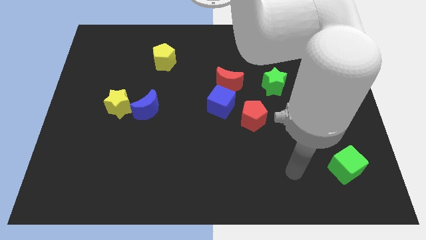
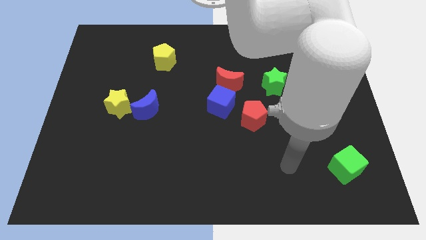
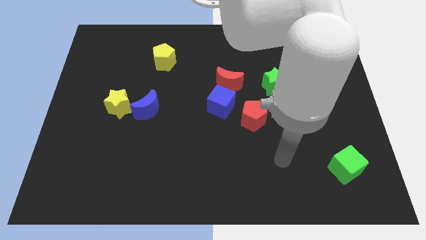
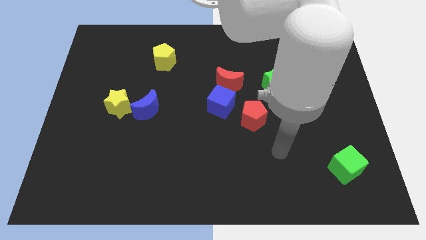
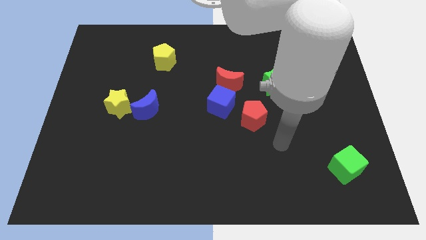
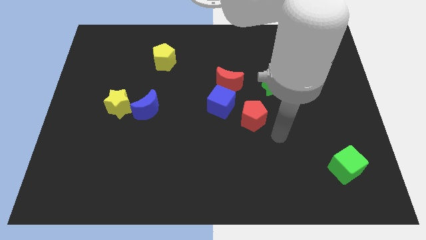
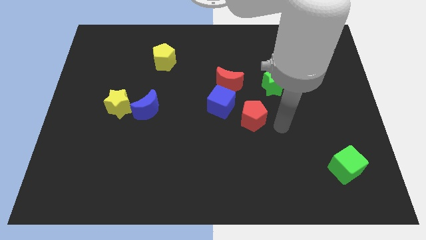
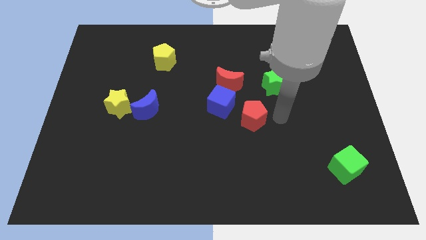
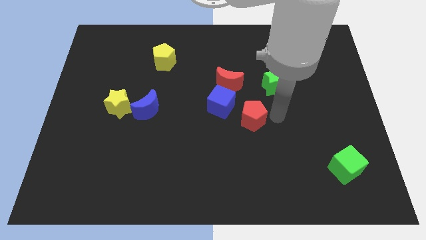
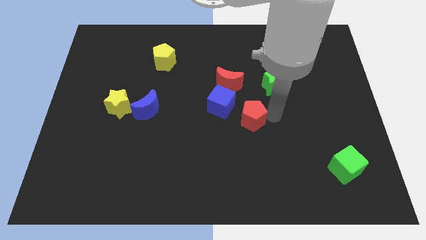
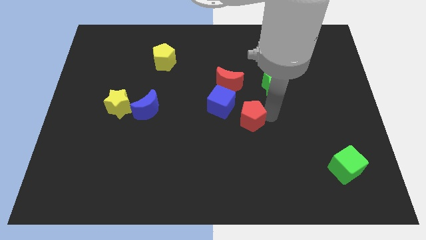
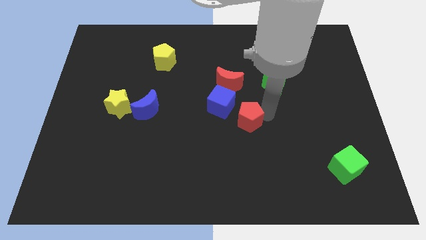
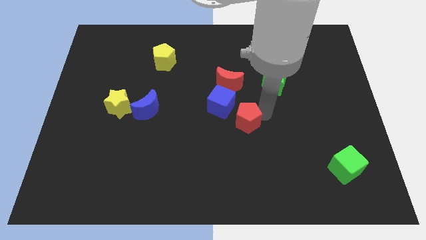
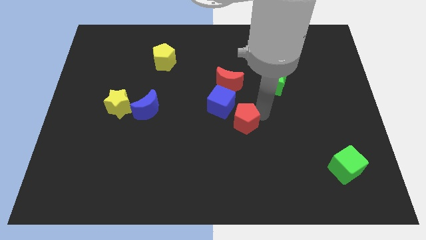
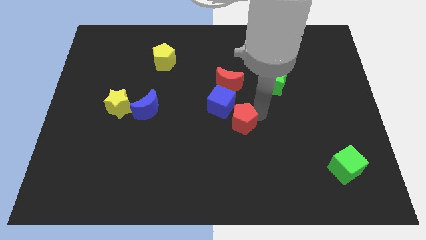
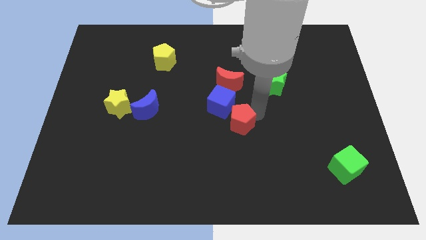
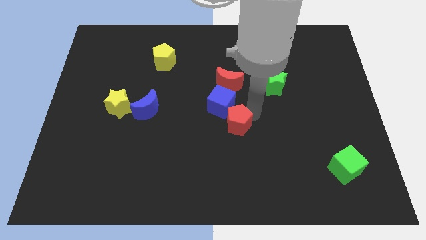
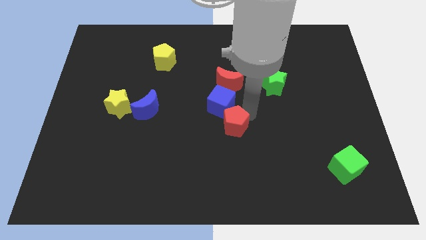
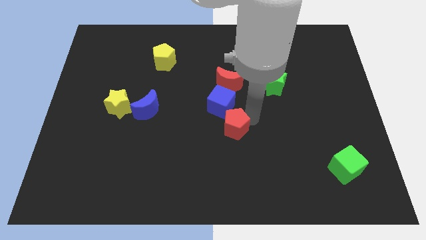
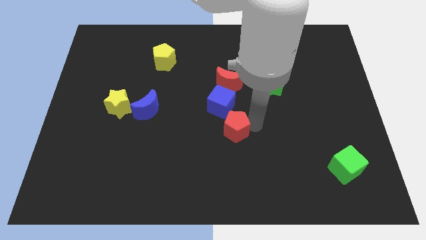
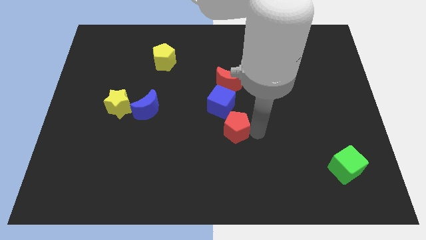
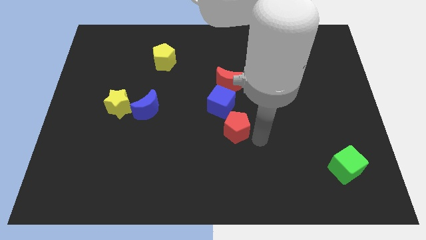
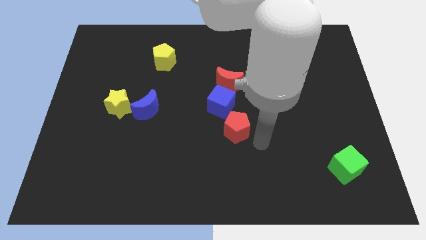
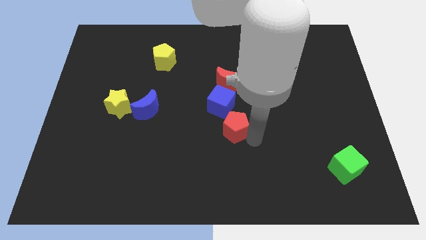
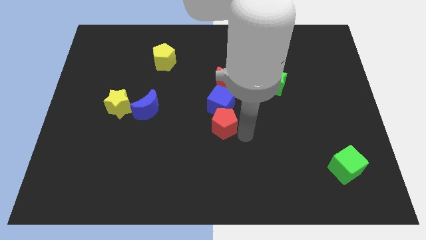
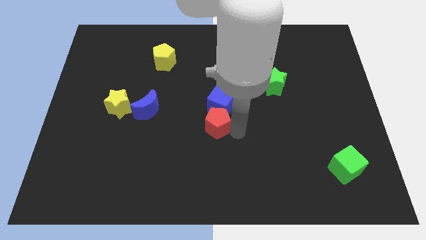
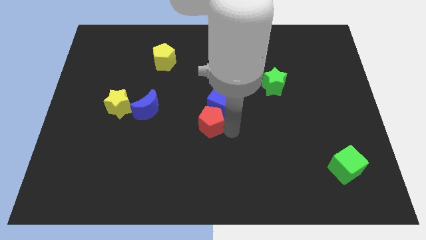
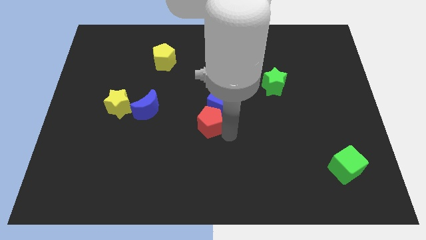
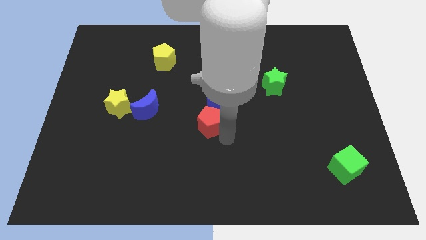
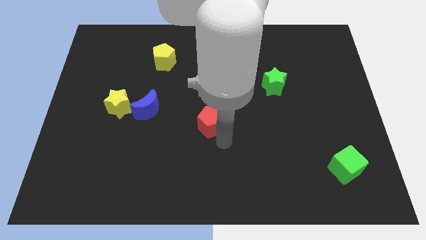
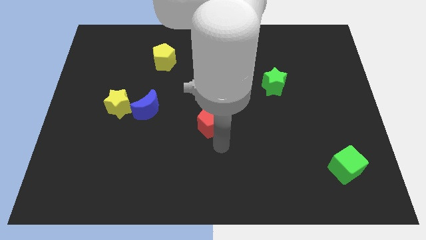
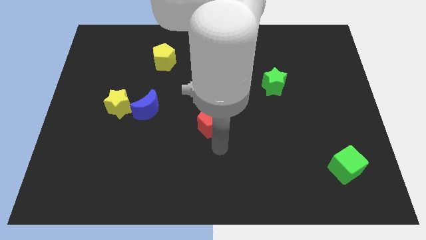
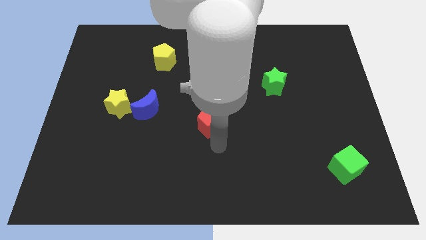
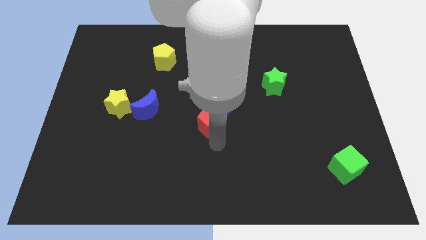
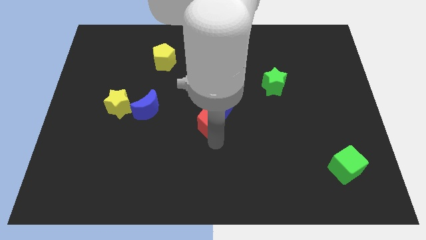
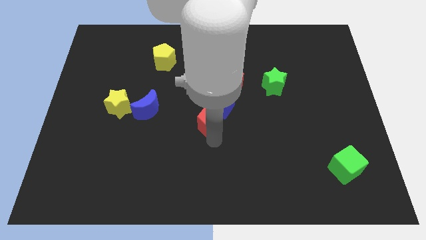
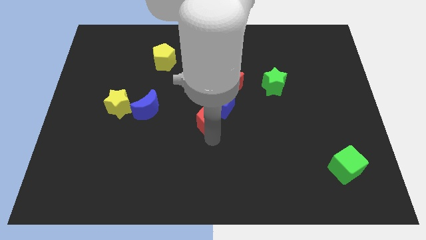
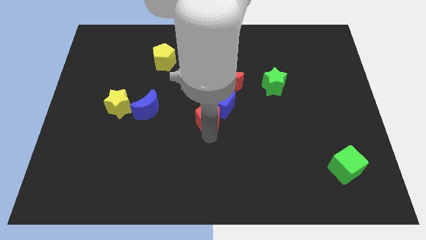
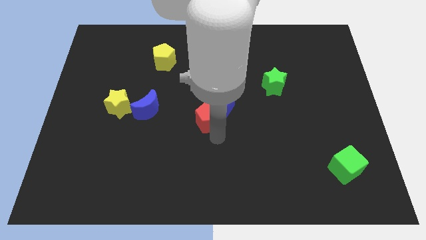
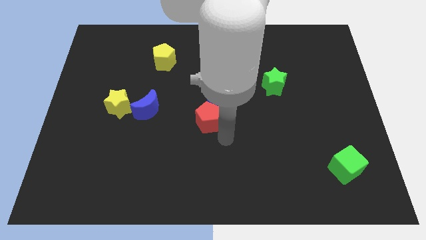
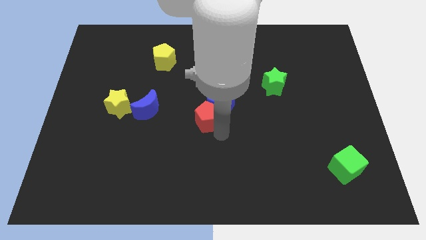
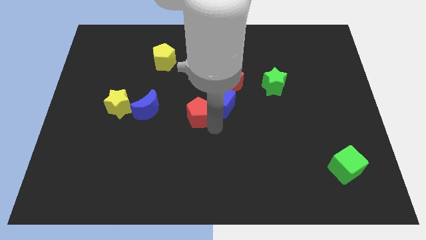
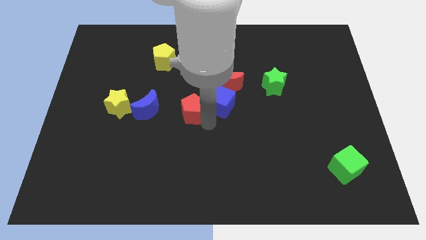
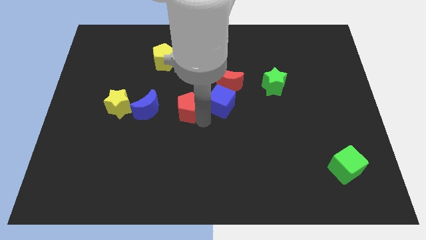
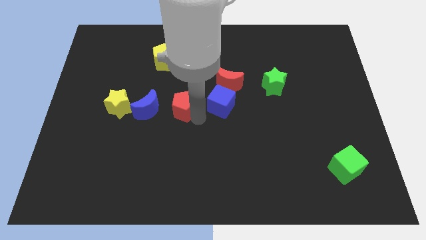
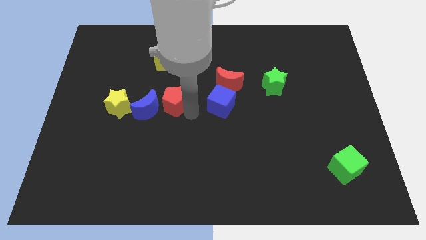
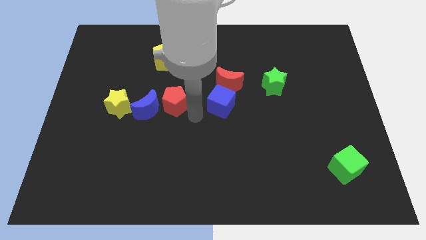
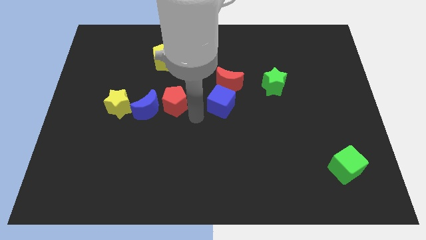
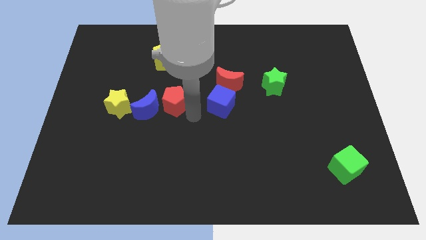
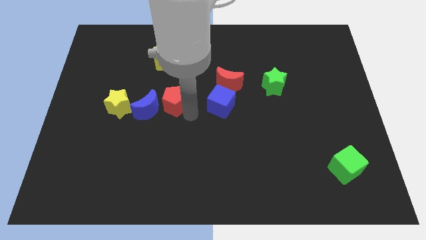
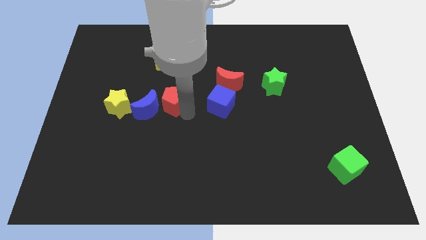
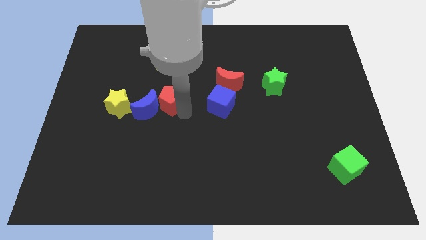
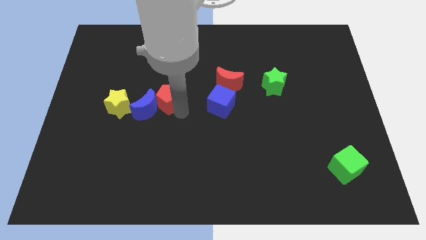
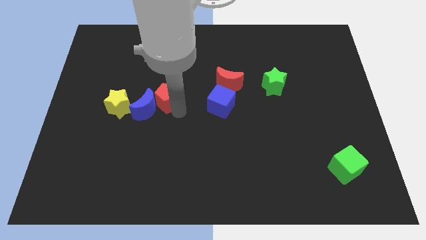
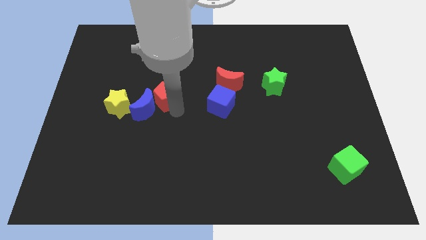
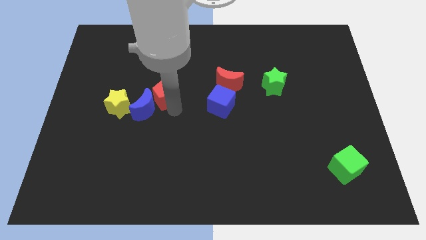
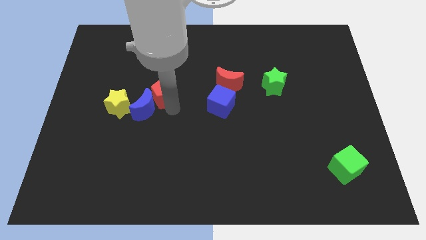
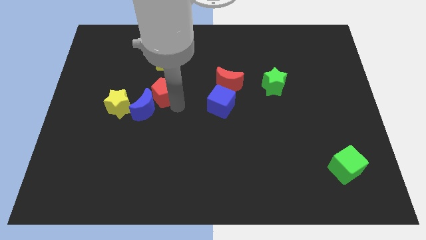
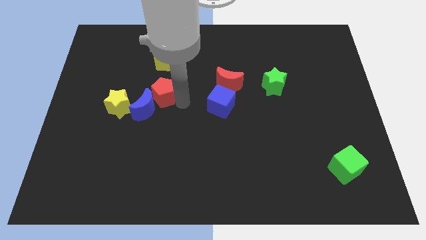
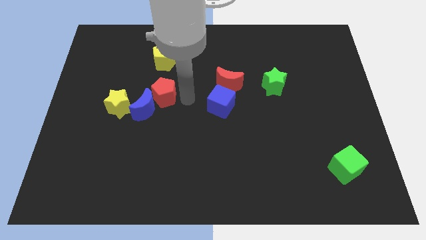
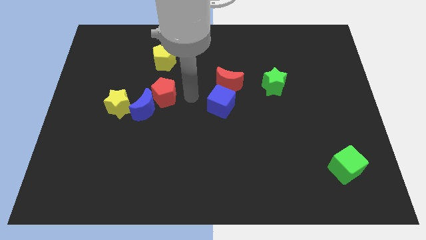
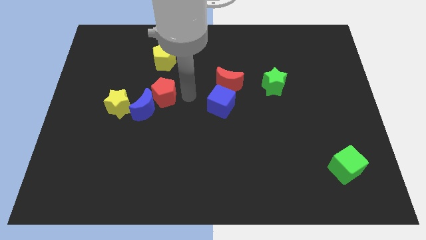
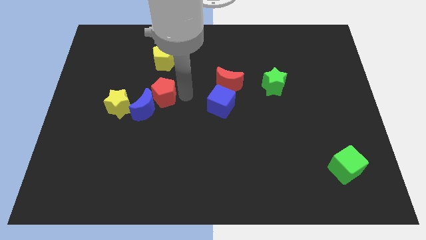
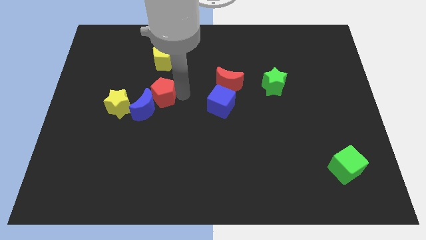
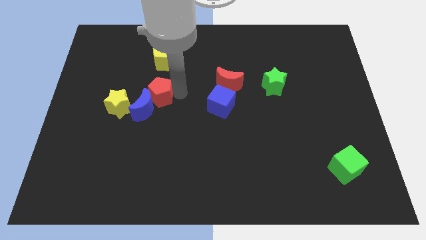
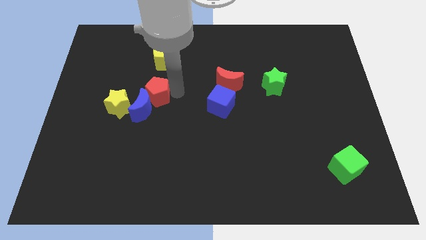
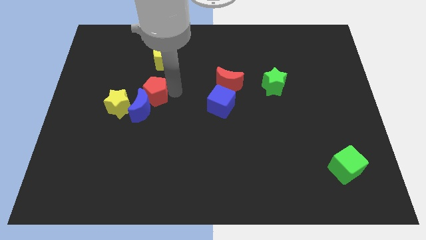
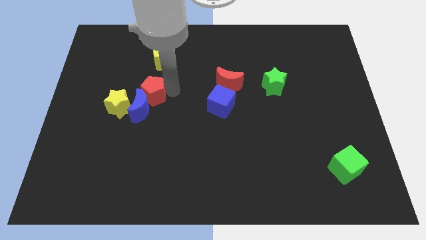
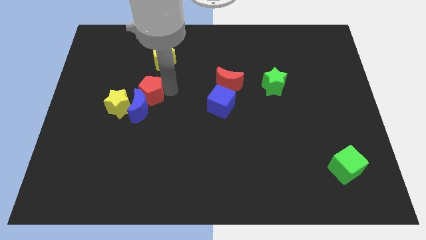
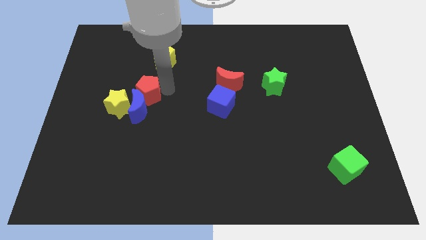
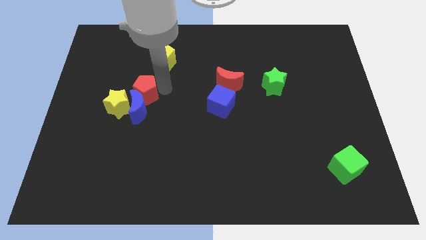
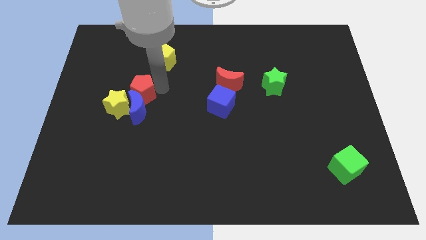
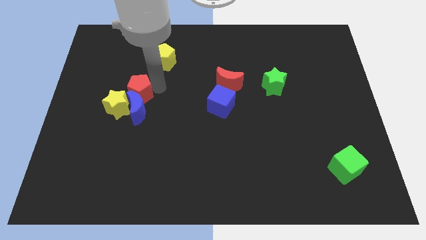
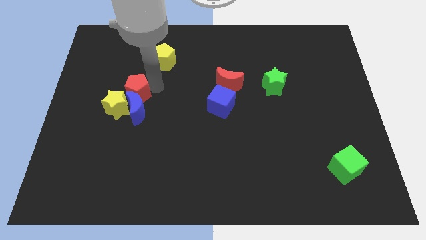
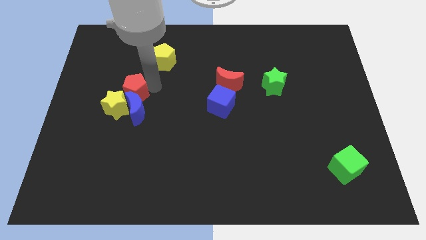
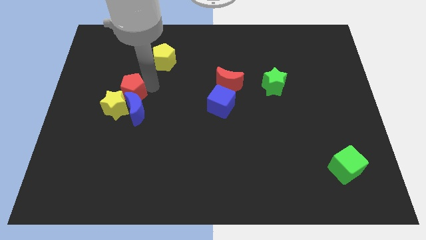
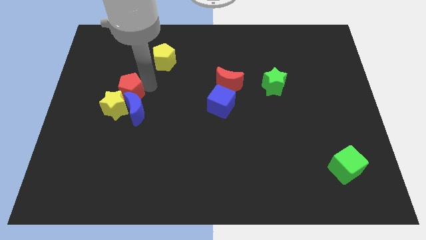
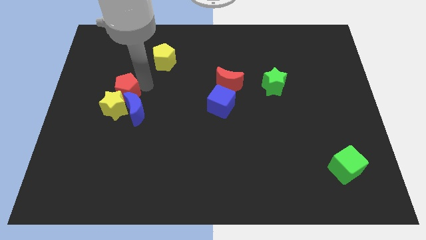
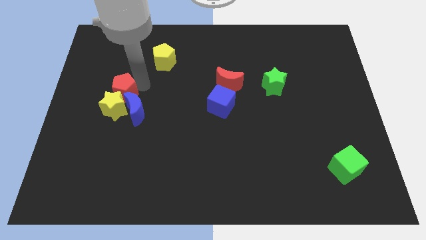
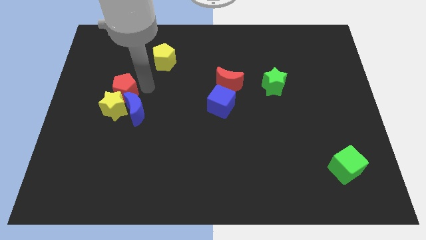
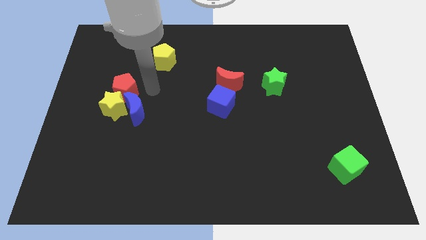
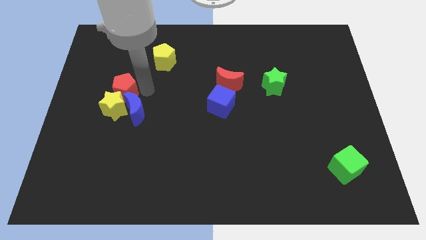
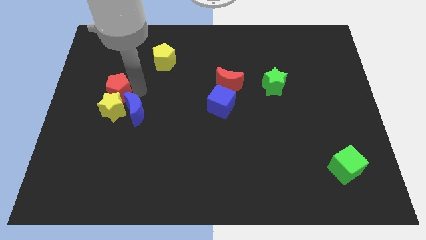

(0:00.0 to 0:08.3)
move the red pentagon diagonally up and to the left of the yellow star
